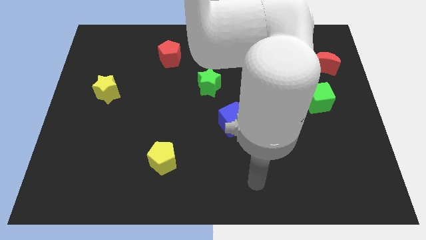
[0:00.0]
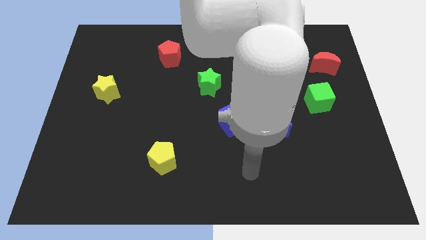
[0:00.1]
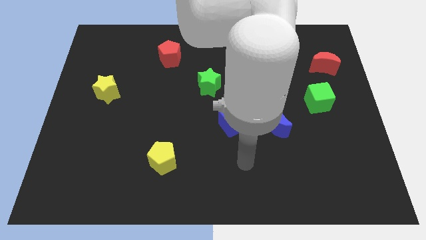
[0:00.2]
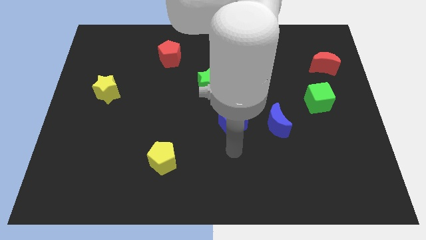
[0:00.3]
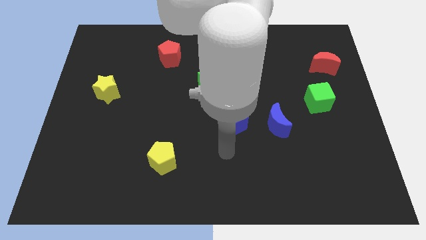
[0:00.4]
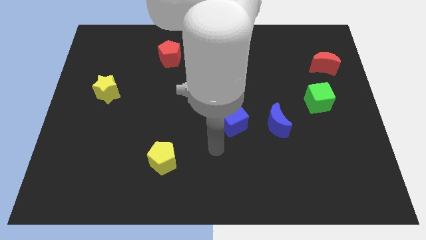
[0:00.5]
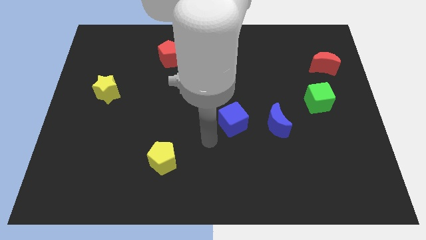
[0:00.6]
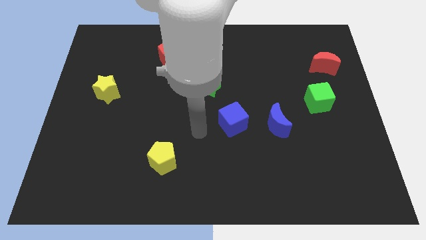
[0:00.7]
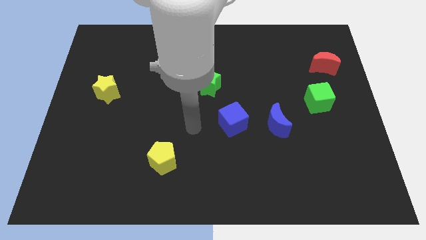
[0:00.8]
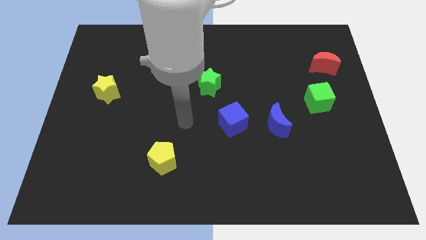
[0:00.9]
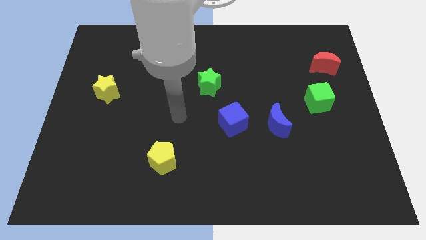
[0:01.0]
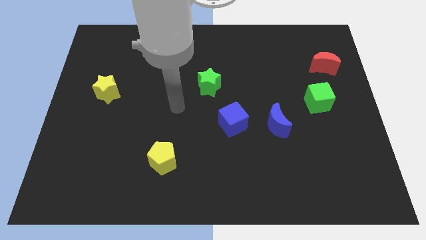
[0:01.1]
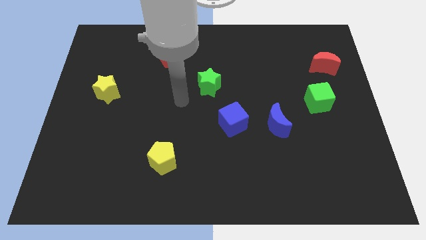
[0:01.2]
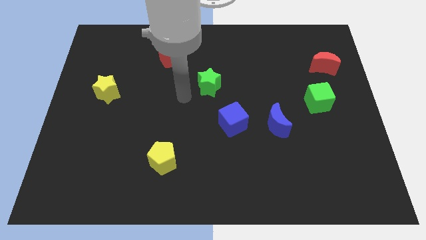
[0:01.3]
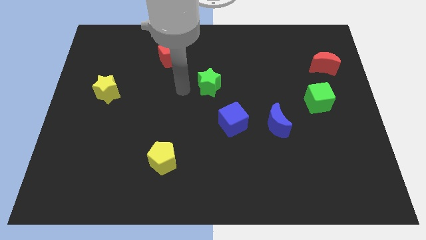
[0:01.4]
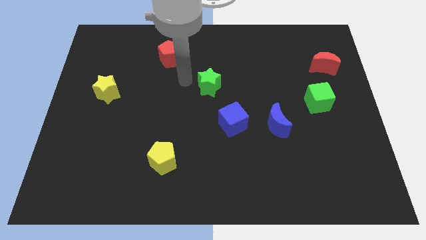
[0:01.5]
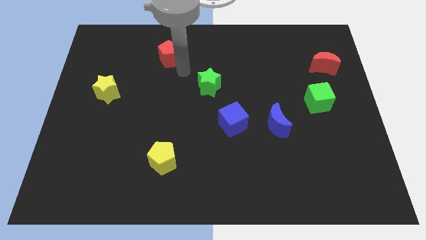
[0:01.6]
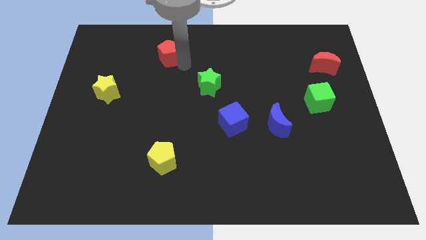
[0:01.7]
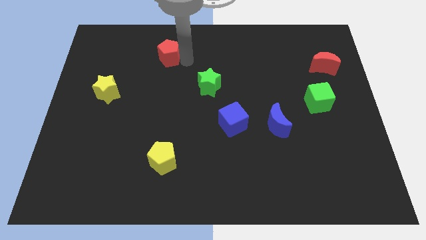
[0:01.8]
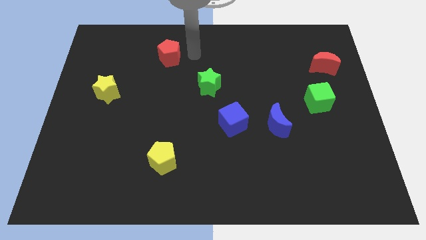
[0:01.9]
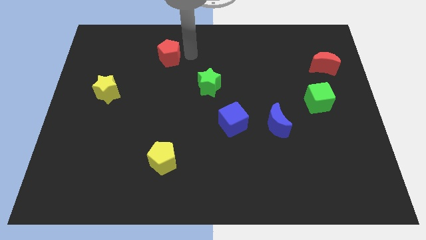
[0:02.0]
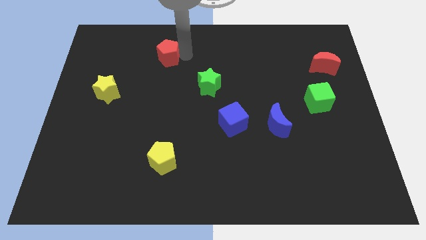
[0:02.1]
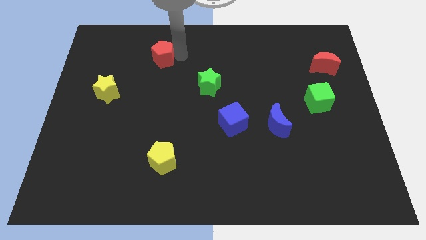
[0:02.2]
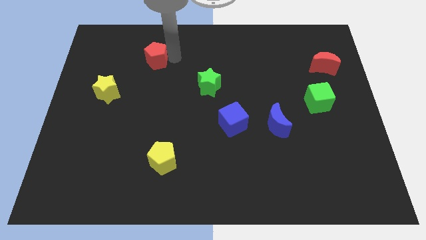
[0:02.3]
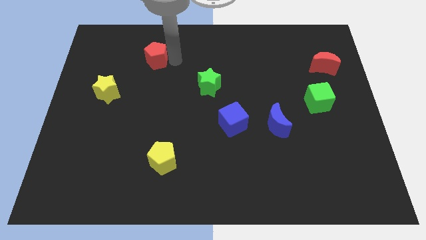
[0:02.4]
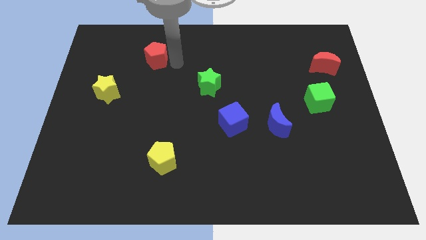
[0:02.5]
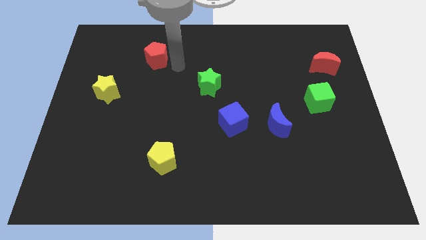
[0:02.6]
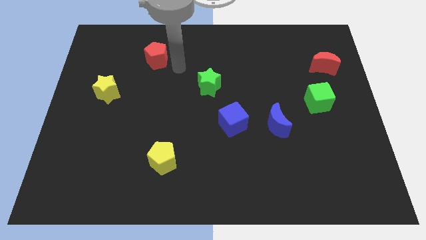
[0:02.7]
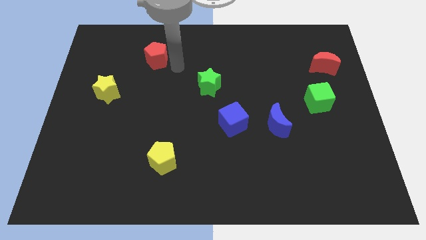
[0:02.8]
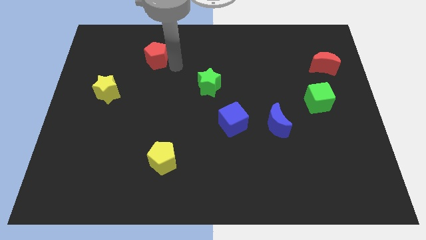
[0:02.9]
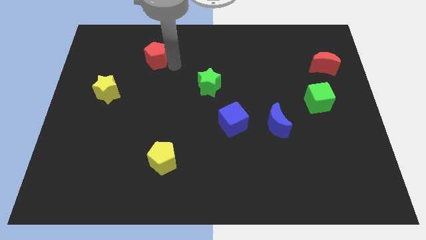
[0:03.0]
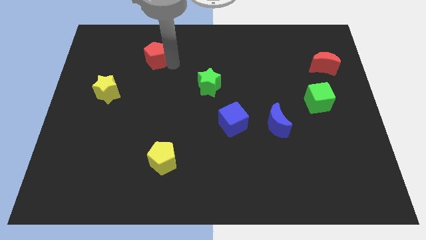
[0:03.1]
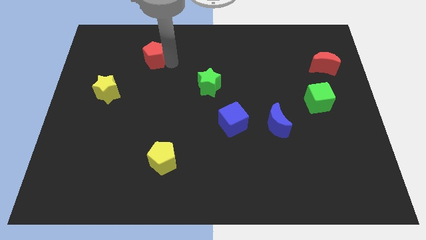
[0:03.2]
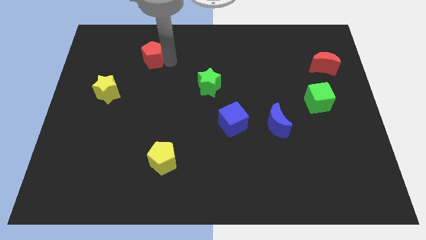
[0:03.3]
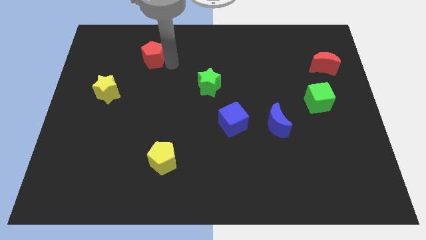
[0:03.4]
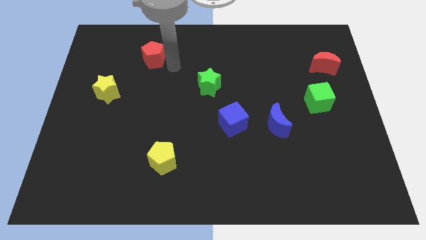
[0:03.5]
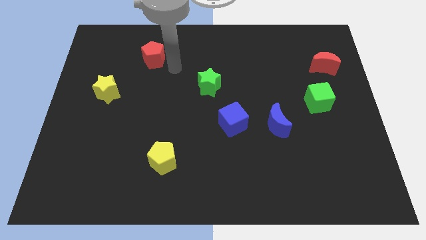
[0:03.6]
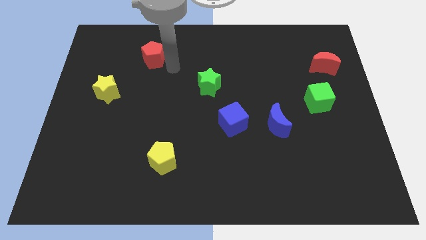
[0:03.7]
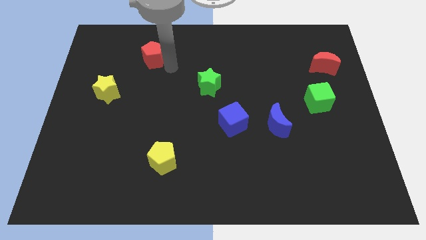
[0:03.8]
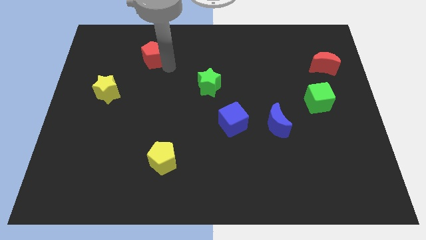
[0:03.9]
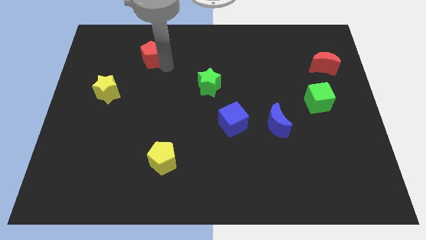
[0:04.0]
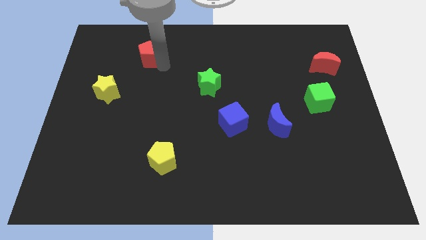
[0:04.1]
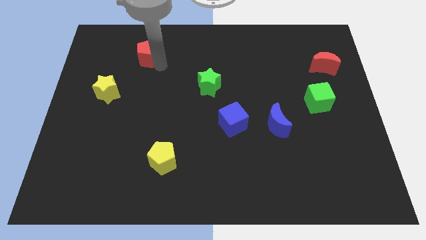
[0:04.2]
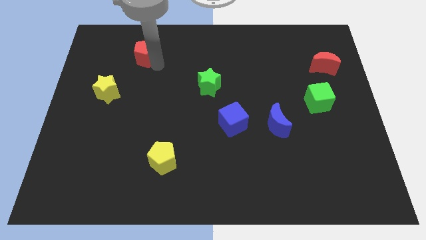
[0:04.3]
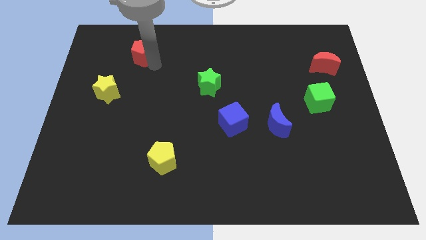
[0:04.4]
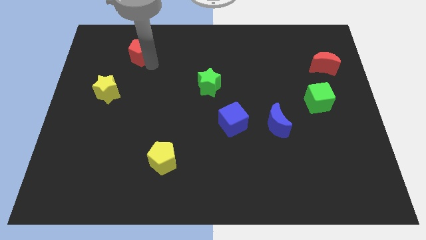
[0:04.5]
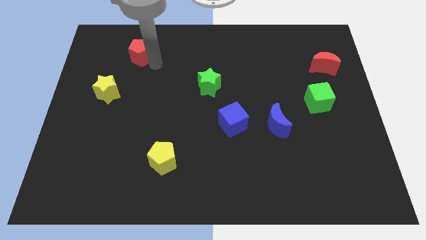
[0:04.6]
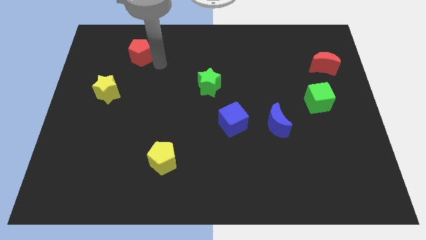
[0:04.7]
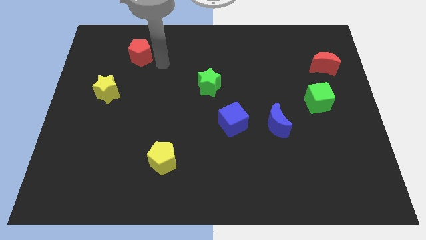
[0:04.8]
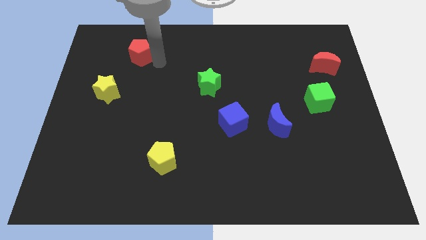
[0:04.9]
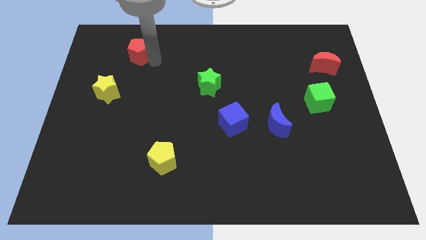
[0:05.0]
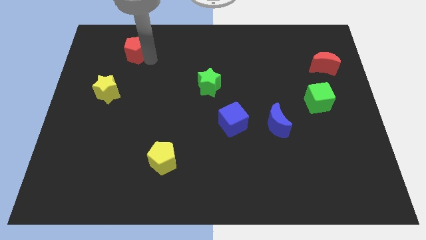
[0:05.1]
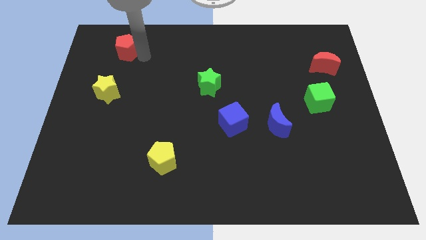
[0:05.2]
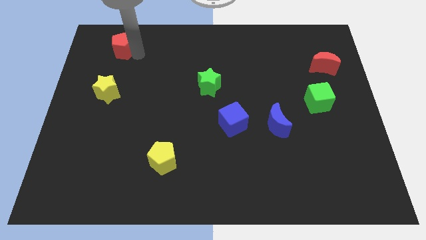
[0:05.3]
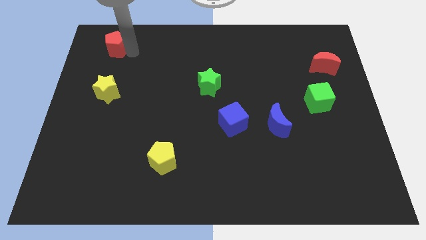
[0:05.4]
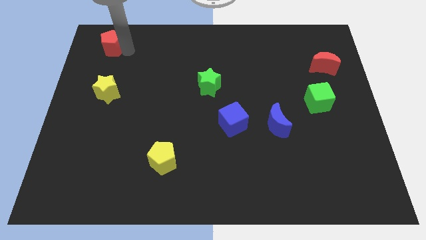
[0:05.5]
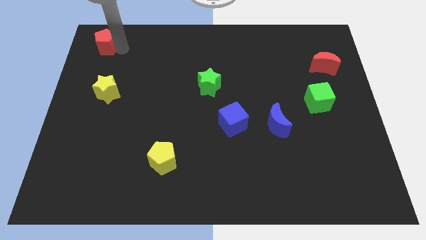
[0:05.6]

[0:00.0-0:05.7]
put the red pentagon to the top left of the board

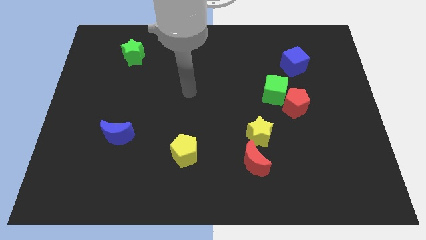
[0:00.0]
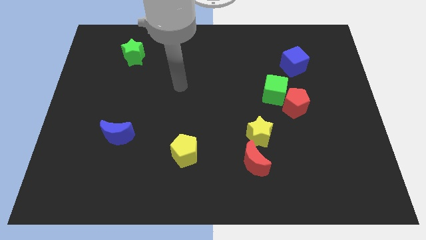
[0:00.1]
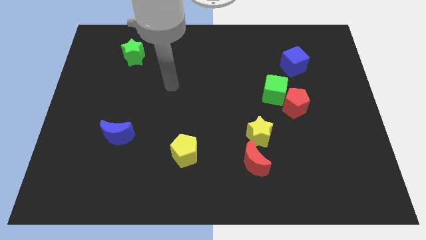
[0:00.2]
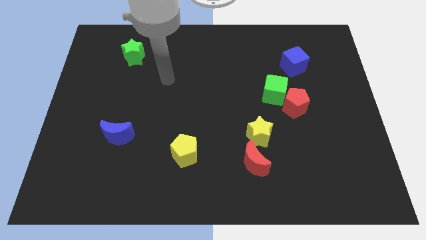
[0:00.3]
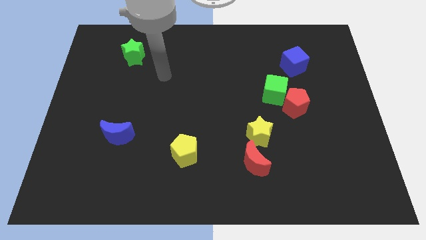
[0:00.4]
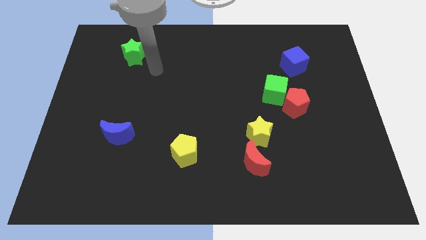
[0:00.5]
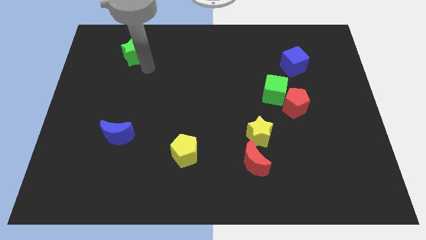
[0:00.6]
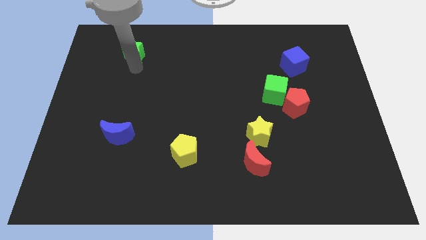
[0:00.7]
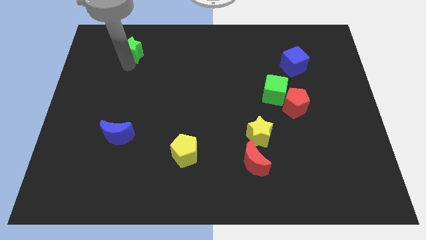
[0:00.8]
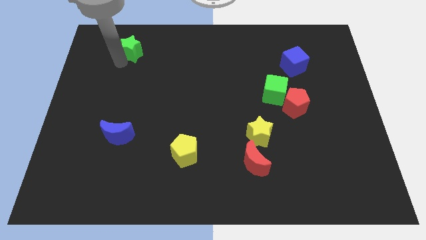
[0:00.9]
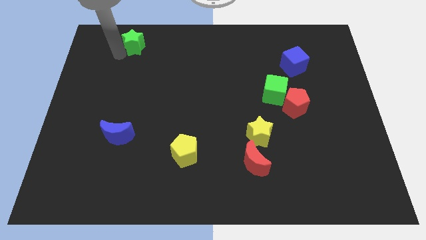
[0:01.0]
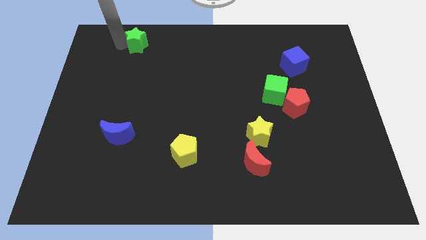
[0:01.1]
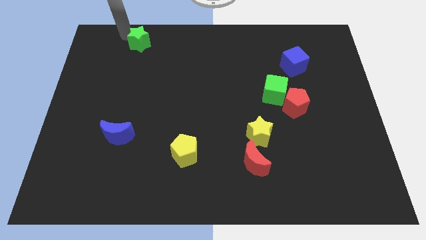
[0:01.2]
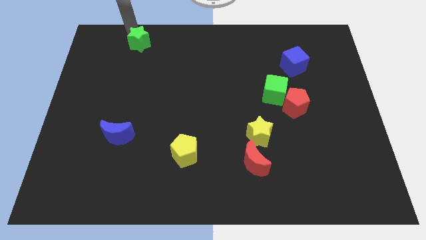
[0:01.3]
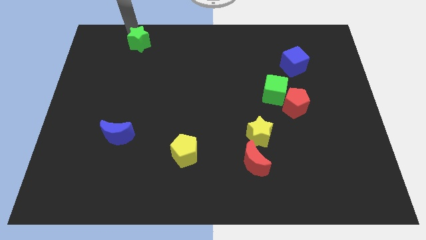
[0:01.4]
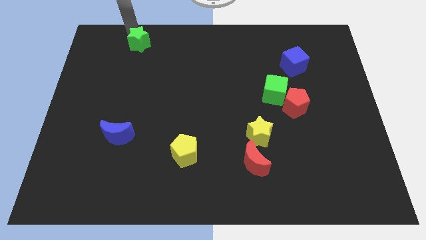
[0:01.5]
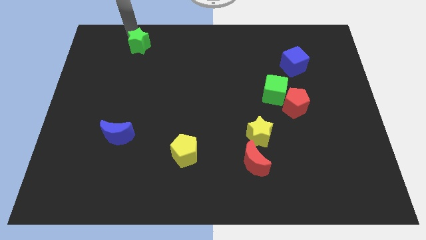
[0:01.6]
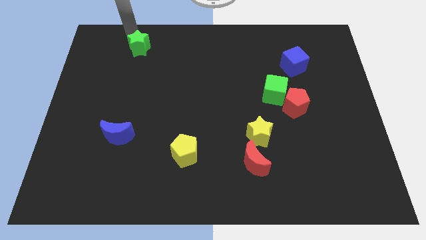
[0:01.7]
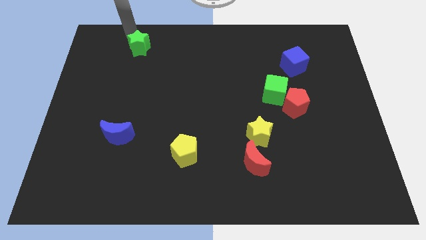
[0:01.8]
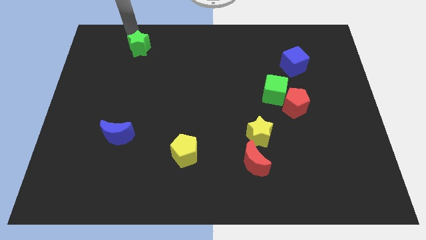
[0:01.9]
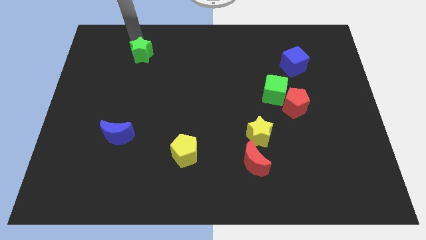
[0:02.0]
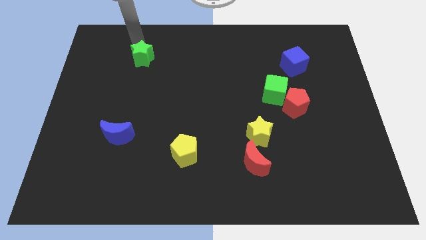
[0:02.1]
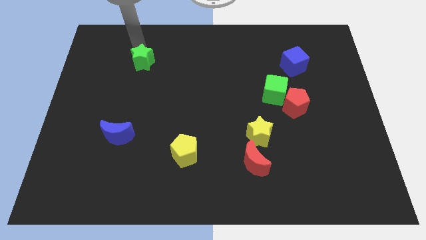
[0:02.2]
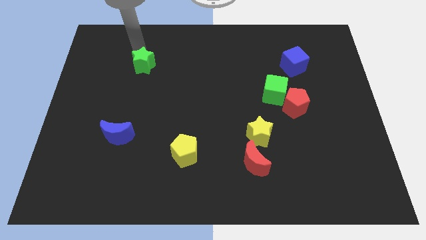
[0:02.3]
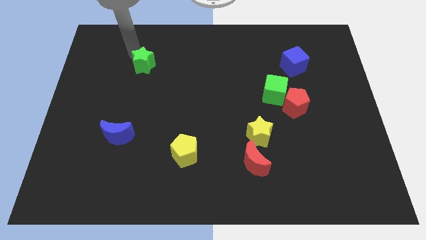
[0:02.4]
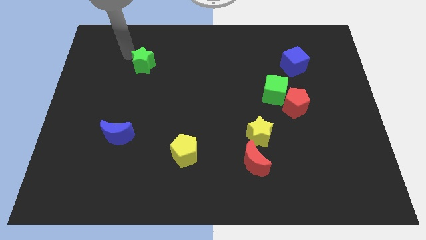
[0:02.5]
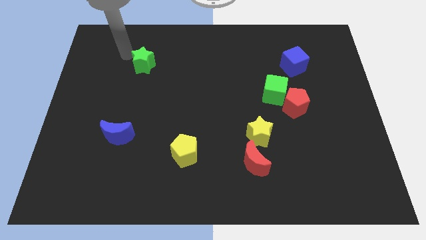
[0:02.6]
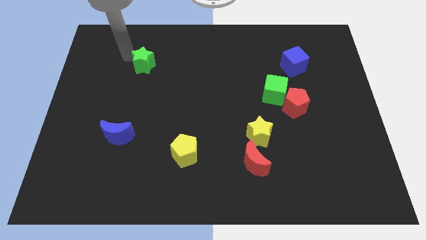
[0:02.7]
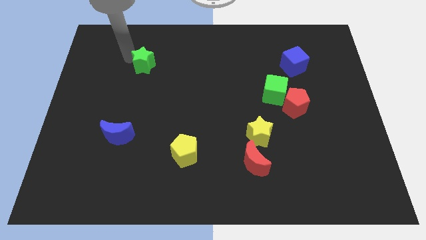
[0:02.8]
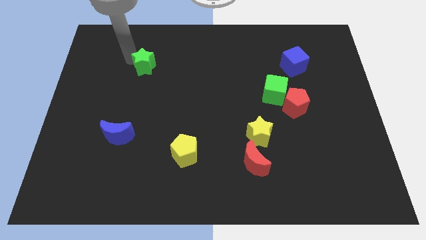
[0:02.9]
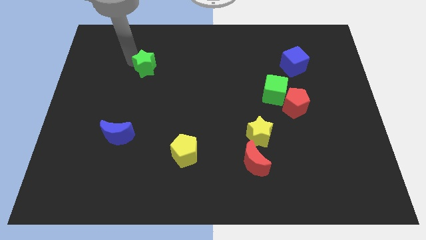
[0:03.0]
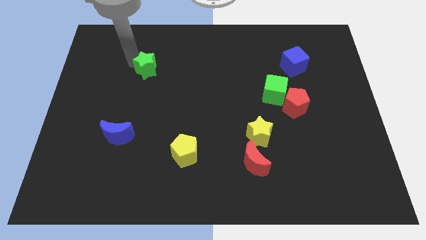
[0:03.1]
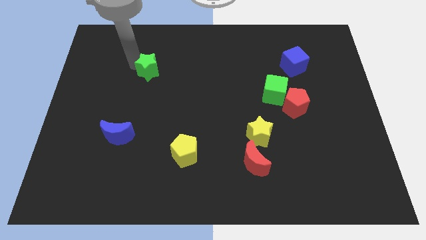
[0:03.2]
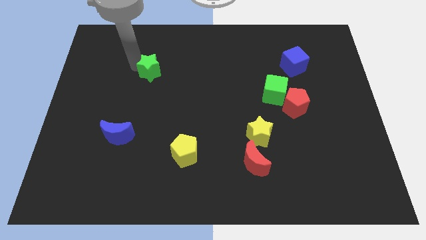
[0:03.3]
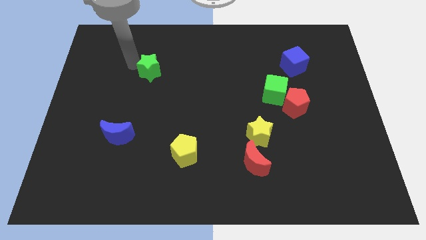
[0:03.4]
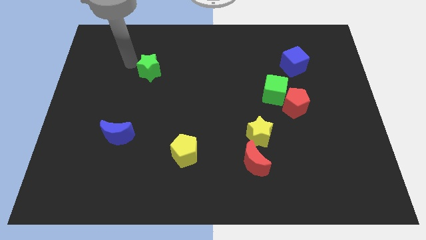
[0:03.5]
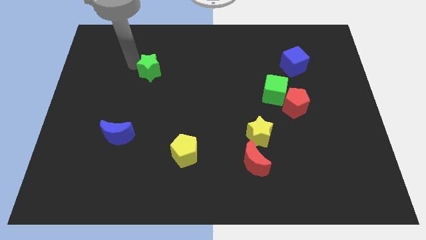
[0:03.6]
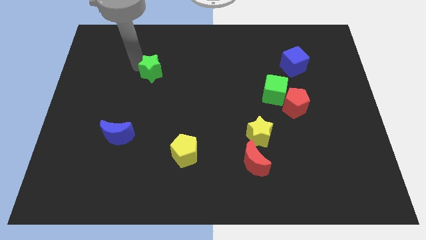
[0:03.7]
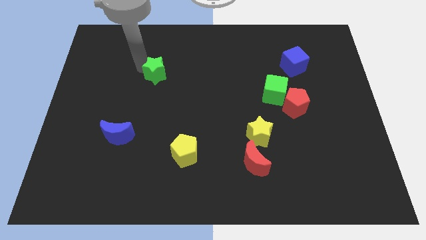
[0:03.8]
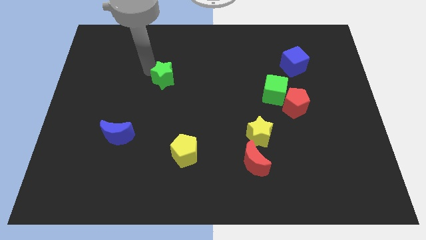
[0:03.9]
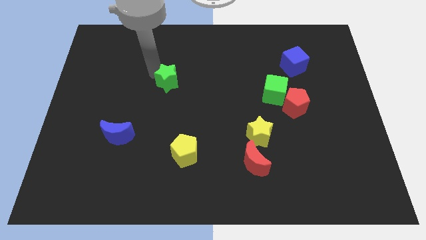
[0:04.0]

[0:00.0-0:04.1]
move the green star to the center of the board
